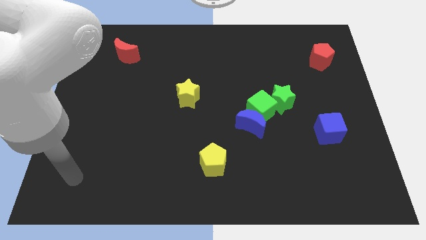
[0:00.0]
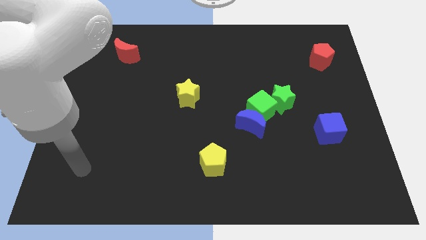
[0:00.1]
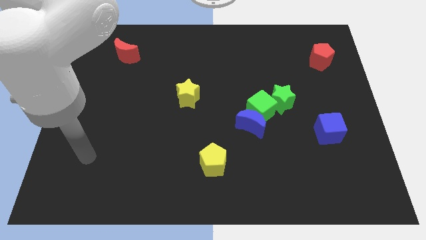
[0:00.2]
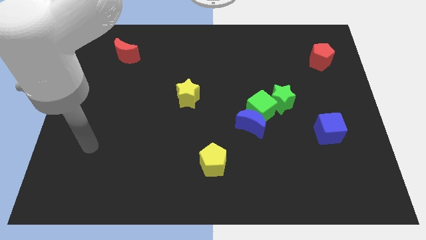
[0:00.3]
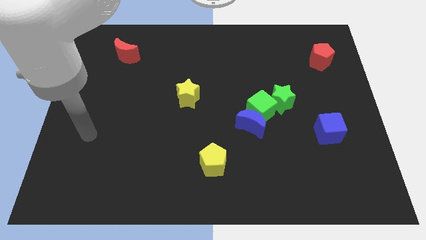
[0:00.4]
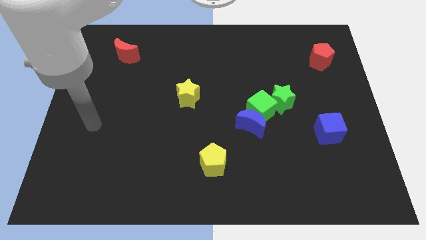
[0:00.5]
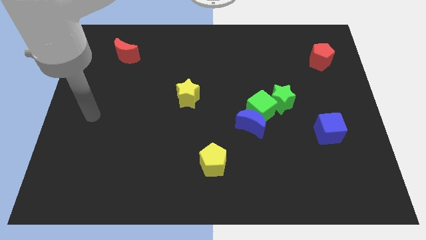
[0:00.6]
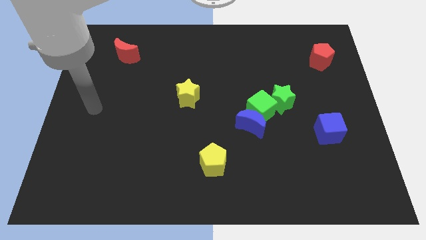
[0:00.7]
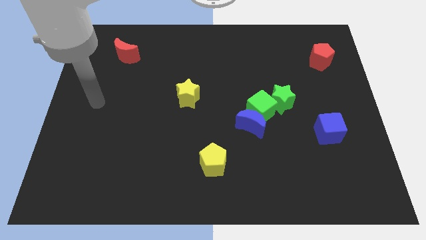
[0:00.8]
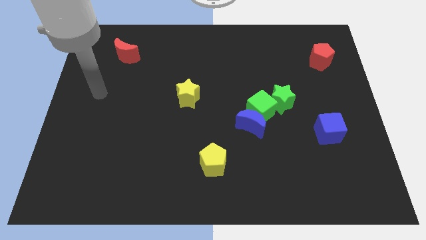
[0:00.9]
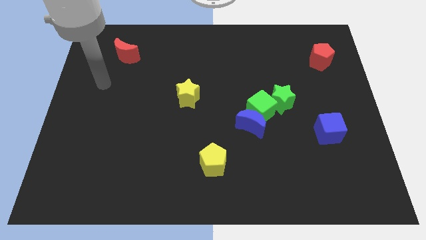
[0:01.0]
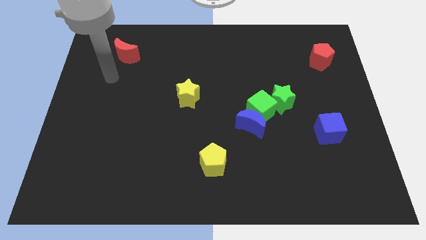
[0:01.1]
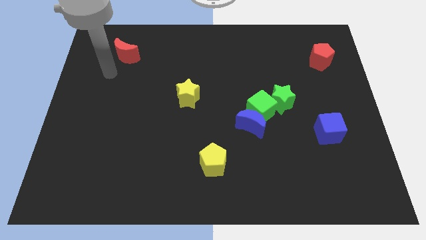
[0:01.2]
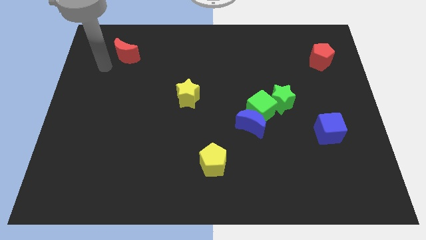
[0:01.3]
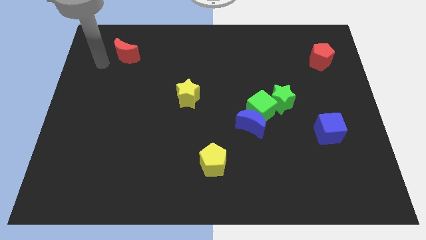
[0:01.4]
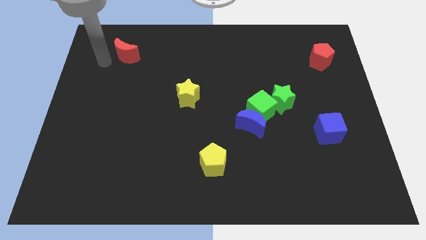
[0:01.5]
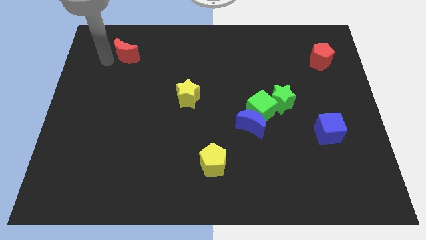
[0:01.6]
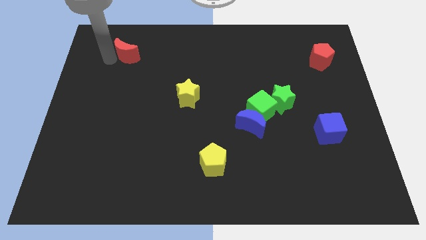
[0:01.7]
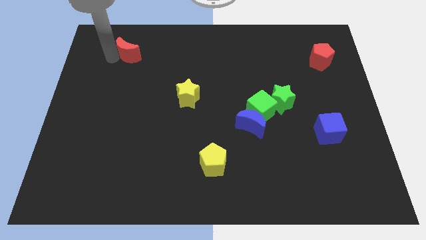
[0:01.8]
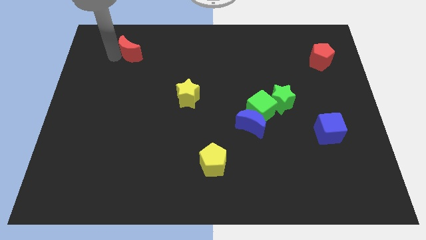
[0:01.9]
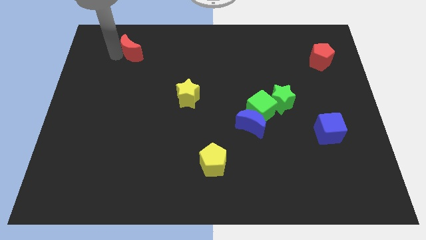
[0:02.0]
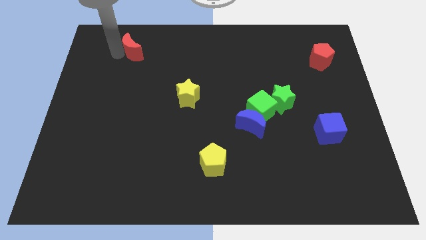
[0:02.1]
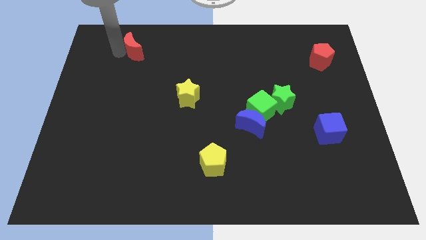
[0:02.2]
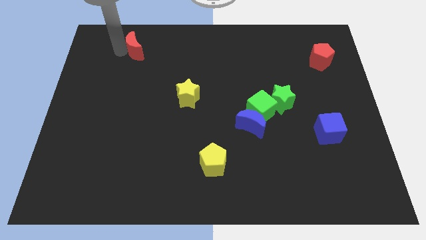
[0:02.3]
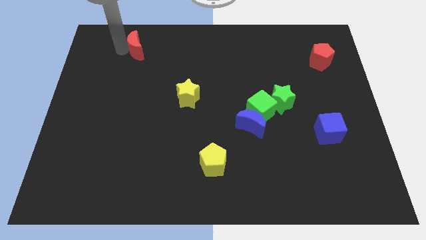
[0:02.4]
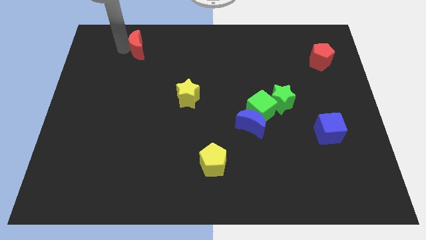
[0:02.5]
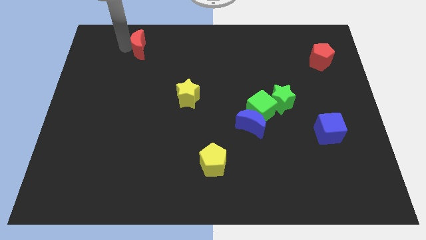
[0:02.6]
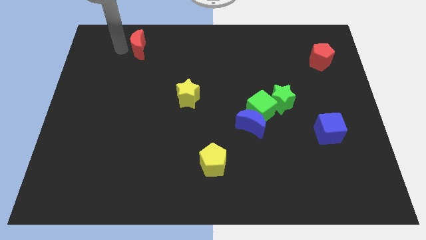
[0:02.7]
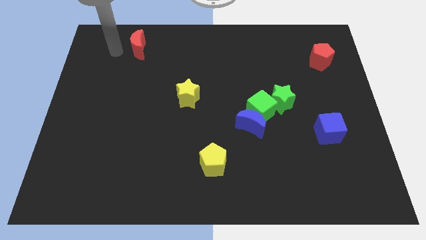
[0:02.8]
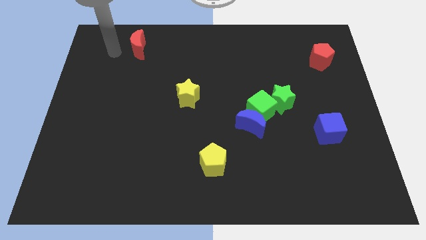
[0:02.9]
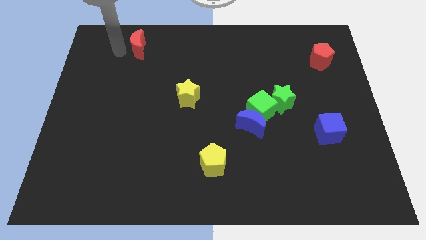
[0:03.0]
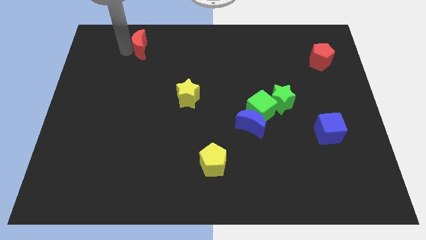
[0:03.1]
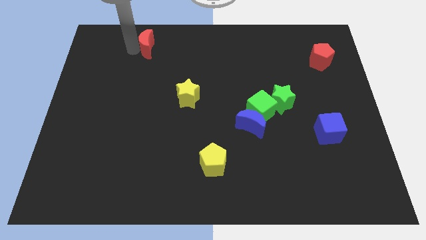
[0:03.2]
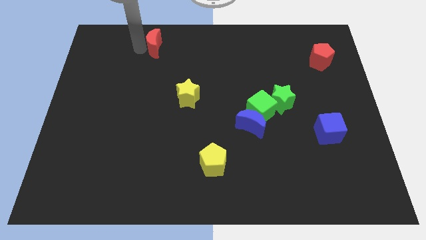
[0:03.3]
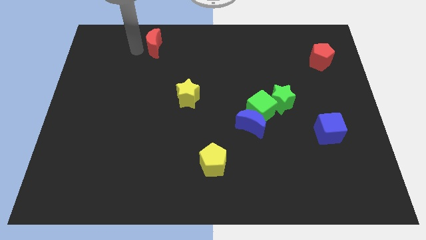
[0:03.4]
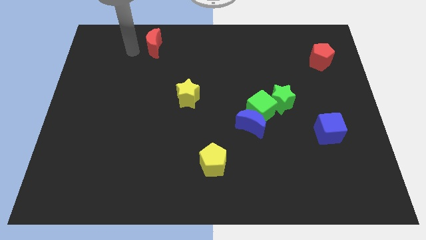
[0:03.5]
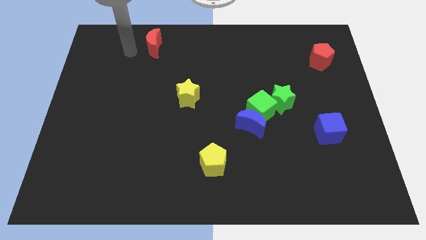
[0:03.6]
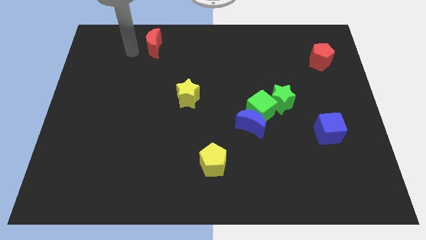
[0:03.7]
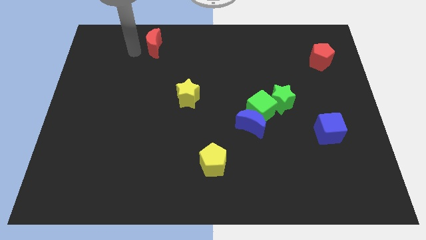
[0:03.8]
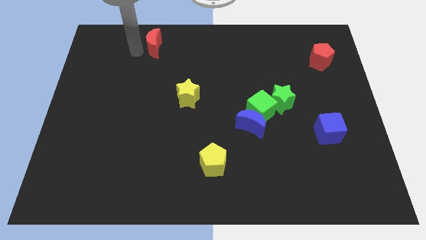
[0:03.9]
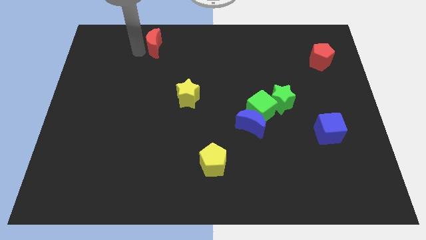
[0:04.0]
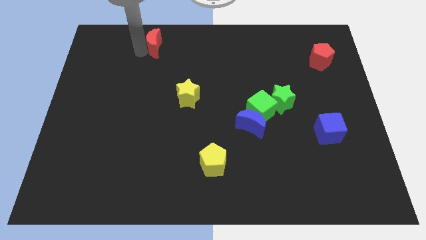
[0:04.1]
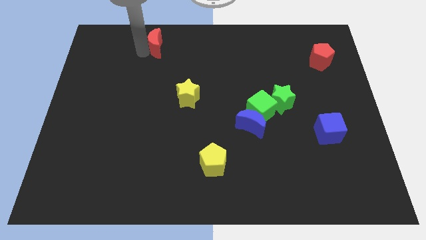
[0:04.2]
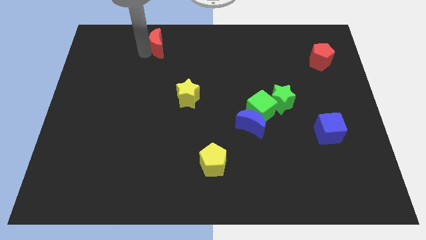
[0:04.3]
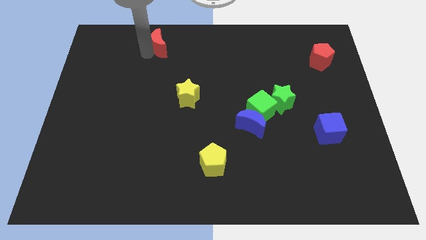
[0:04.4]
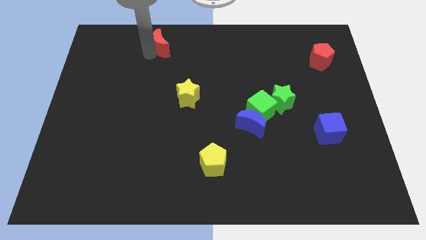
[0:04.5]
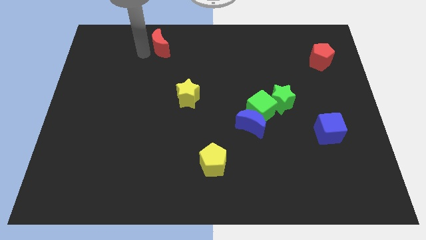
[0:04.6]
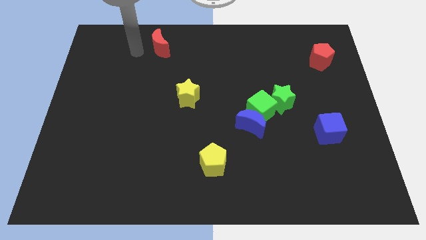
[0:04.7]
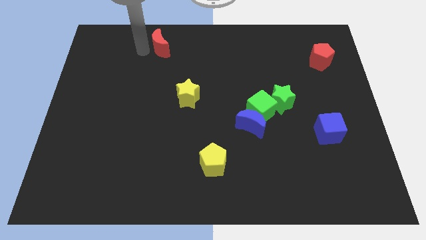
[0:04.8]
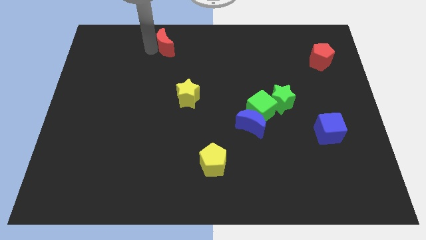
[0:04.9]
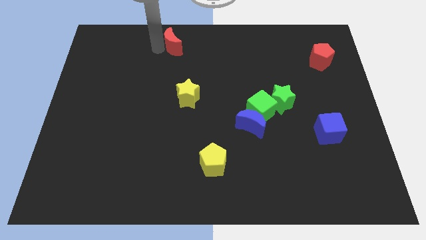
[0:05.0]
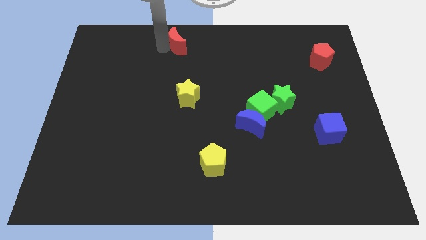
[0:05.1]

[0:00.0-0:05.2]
put the red moon to the towards your base

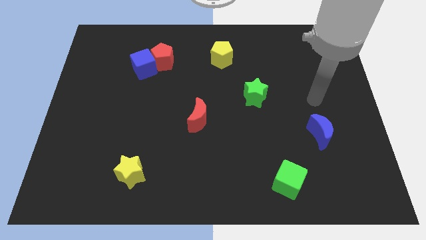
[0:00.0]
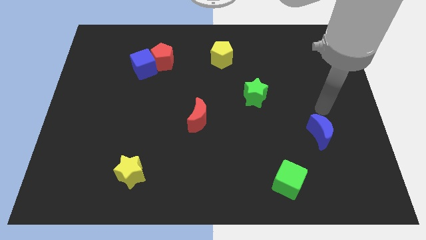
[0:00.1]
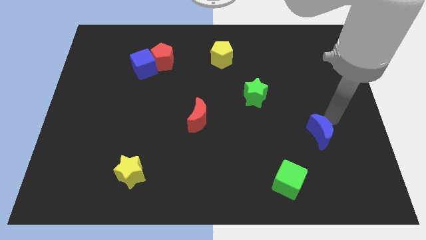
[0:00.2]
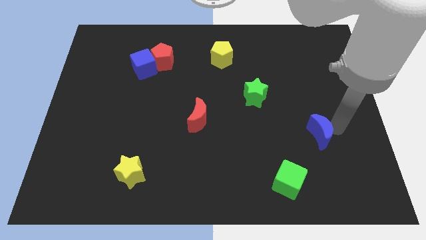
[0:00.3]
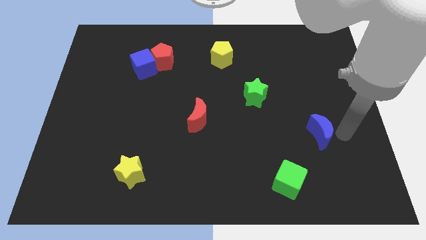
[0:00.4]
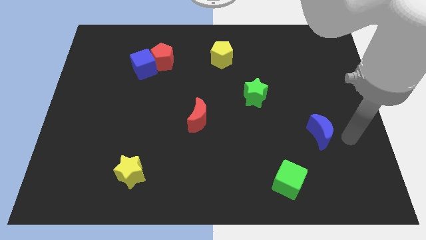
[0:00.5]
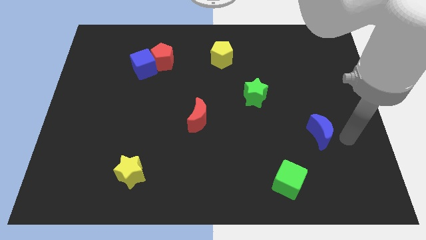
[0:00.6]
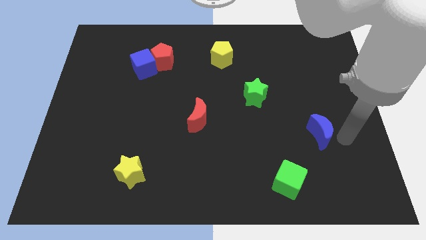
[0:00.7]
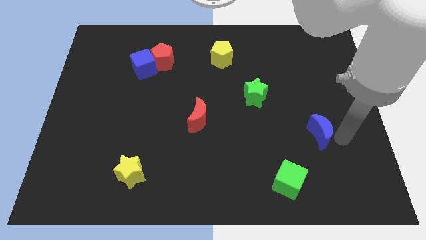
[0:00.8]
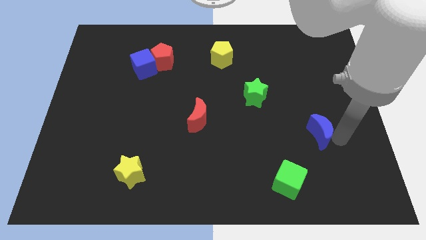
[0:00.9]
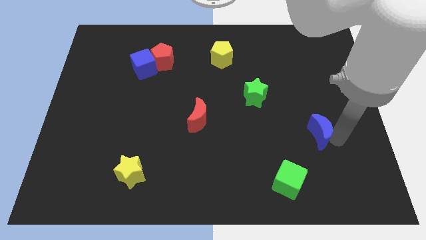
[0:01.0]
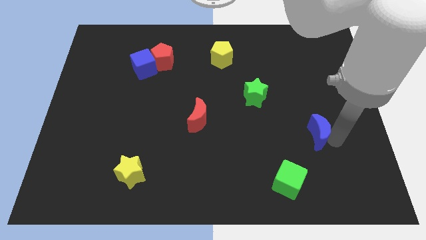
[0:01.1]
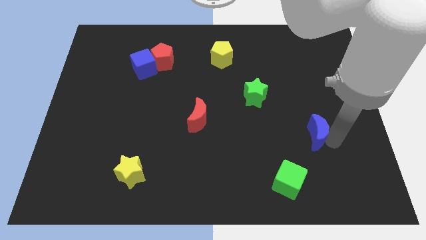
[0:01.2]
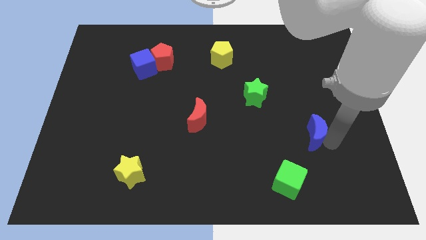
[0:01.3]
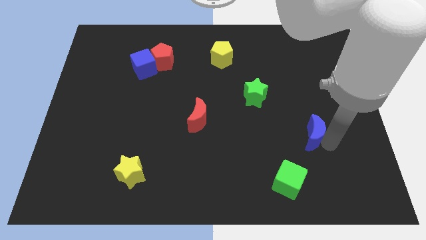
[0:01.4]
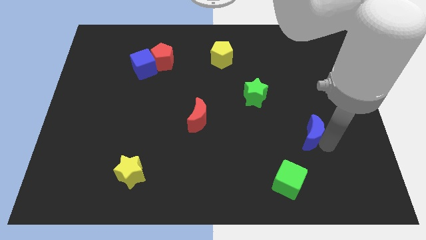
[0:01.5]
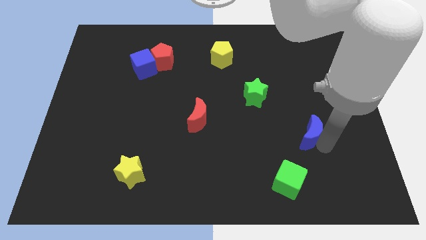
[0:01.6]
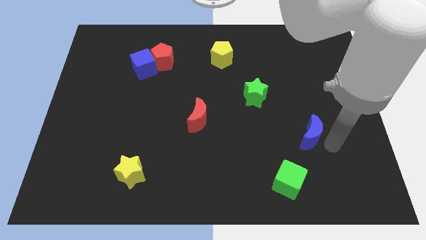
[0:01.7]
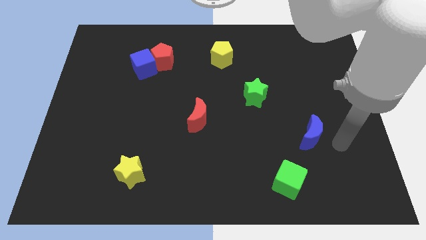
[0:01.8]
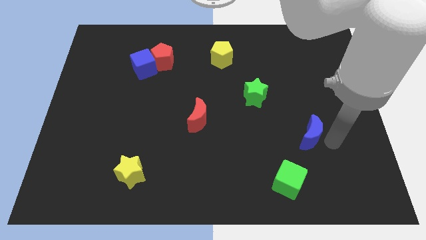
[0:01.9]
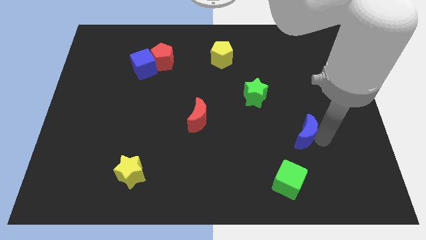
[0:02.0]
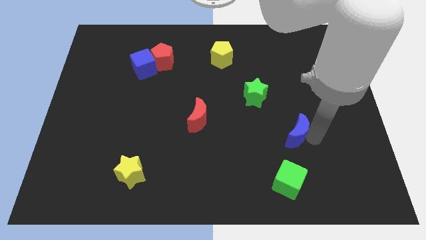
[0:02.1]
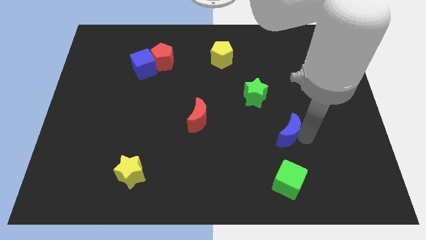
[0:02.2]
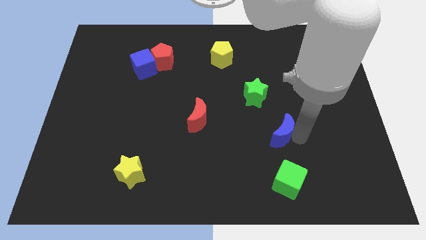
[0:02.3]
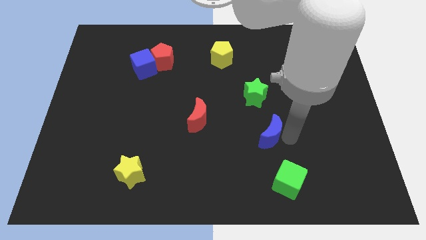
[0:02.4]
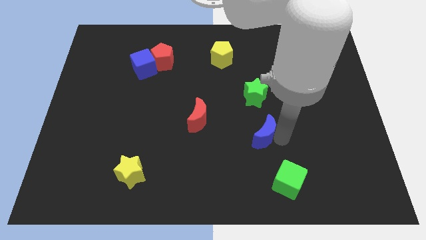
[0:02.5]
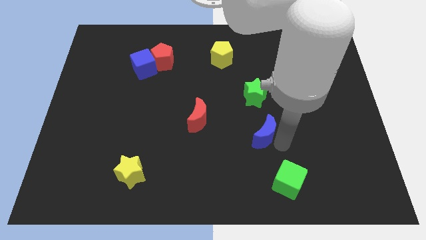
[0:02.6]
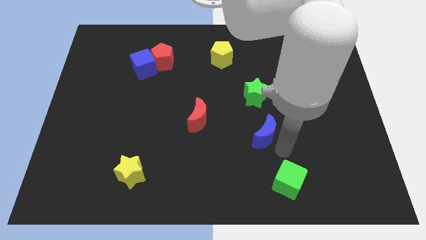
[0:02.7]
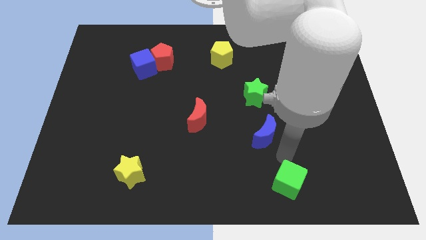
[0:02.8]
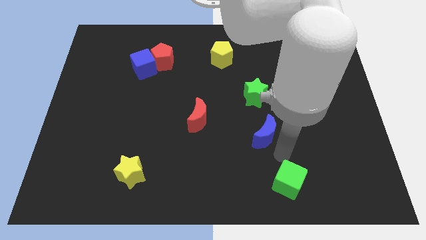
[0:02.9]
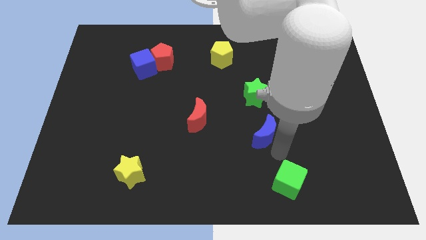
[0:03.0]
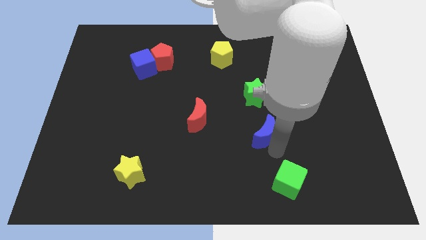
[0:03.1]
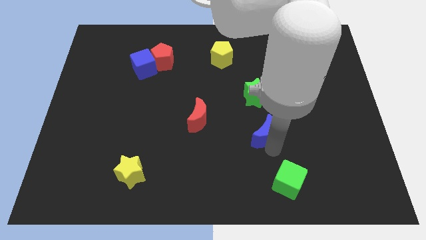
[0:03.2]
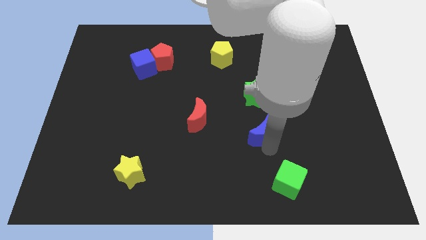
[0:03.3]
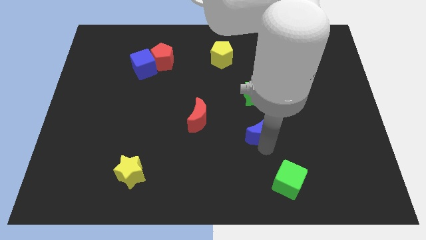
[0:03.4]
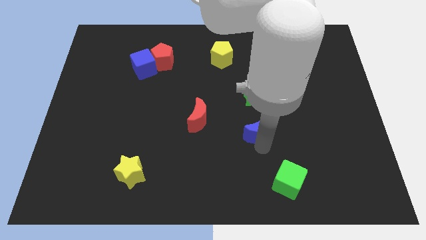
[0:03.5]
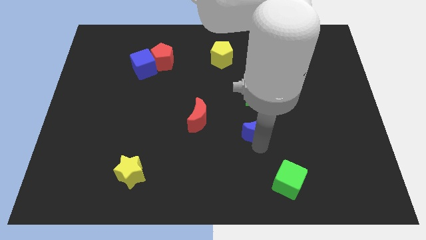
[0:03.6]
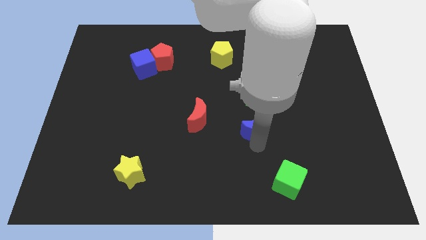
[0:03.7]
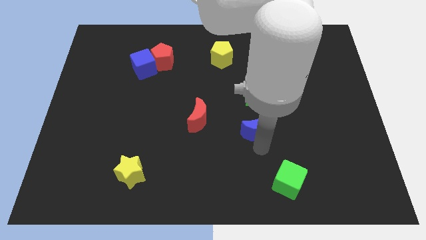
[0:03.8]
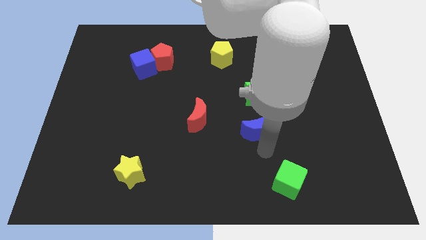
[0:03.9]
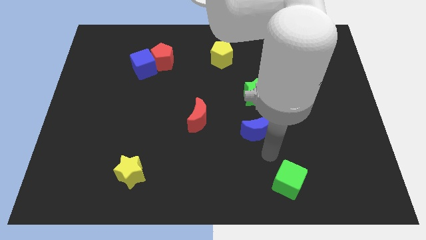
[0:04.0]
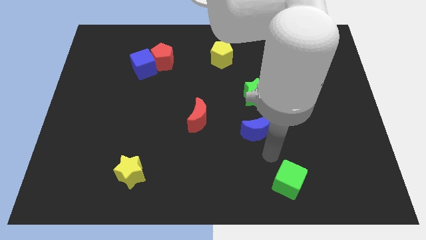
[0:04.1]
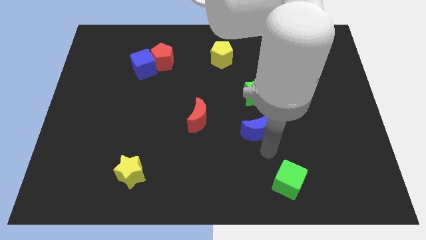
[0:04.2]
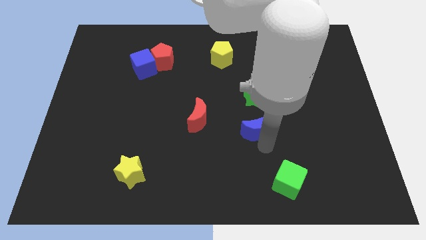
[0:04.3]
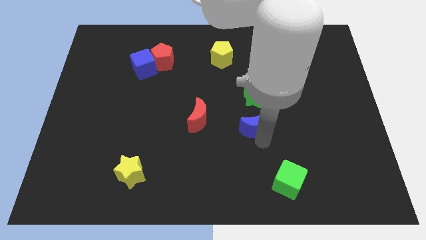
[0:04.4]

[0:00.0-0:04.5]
put the blue moon to the middle
